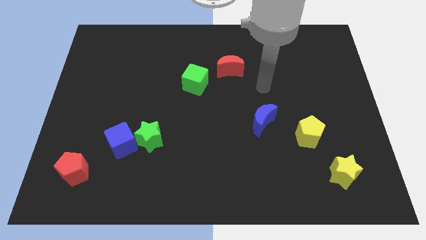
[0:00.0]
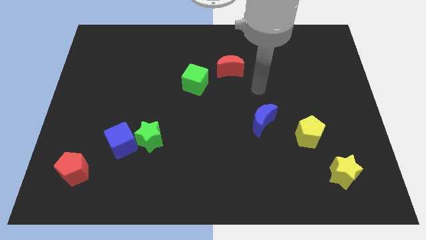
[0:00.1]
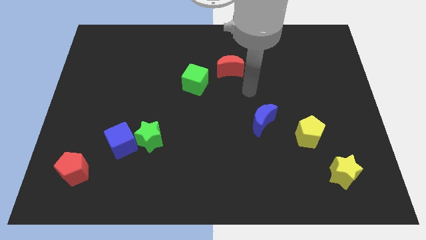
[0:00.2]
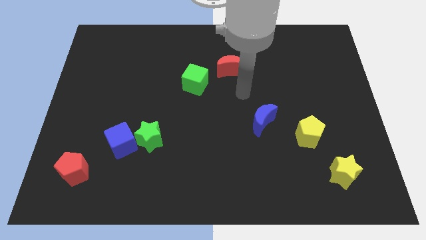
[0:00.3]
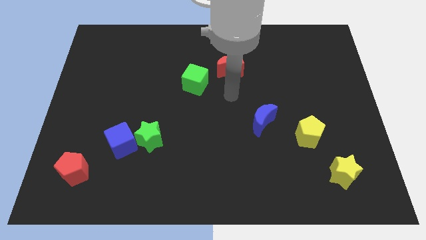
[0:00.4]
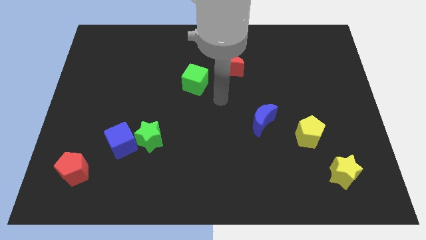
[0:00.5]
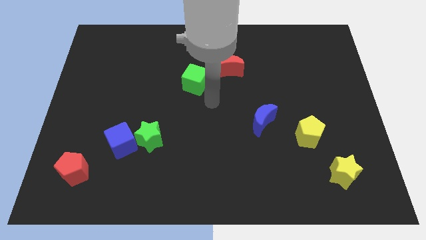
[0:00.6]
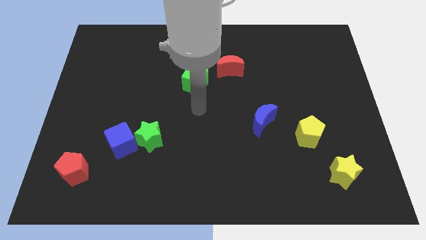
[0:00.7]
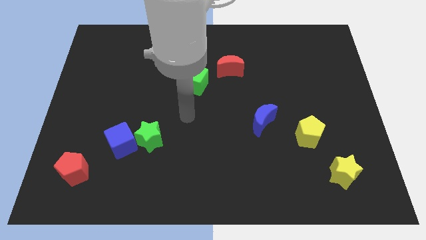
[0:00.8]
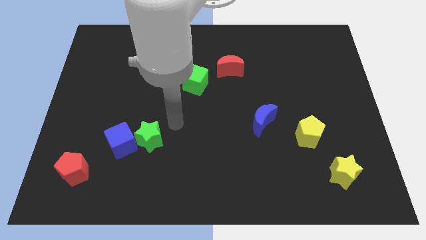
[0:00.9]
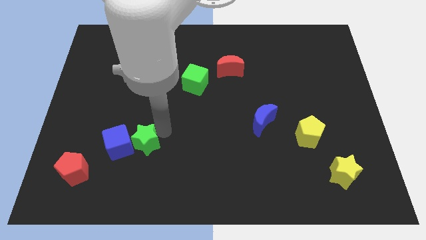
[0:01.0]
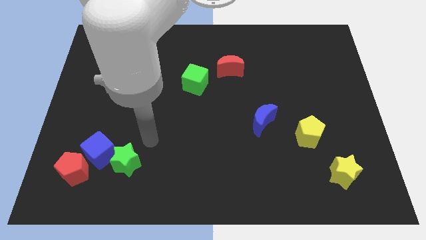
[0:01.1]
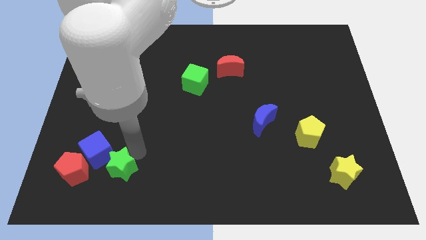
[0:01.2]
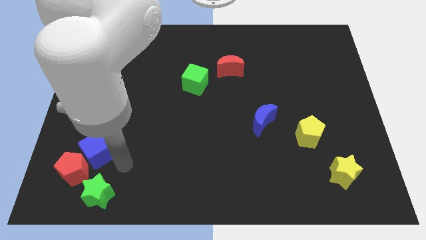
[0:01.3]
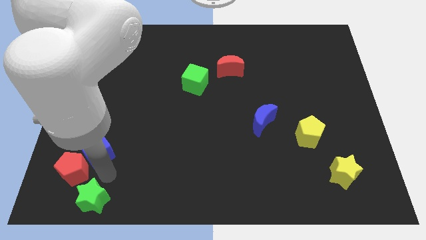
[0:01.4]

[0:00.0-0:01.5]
separate the blue cube from the green star

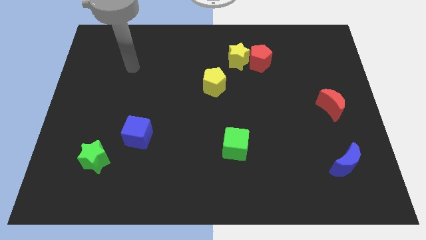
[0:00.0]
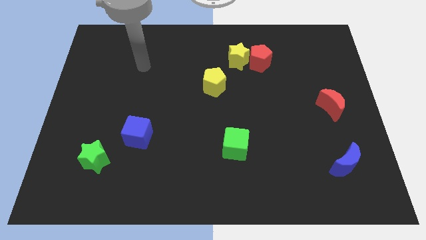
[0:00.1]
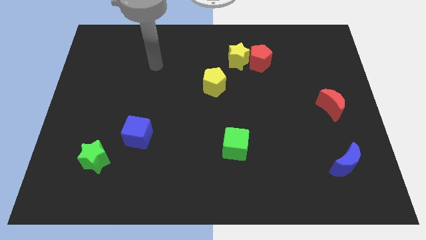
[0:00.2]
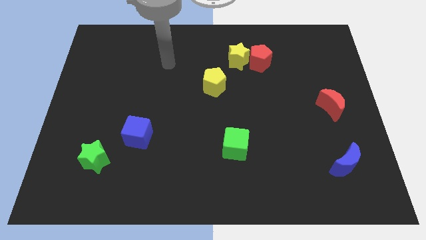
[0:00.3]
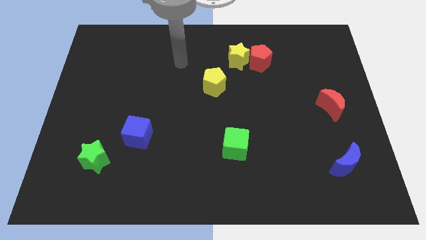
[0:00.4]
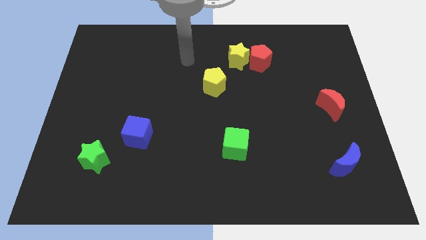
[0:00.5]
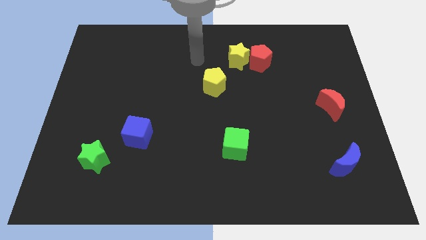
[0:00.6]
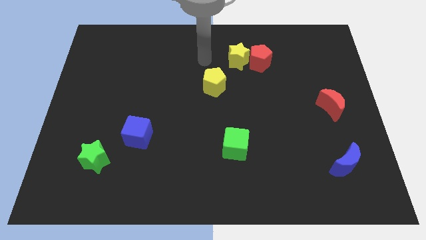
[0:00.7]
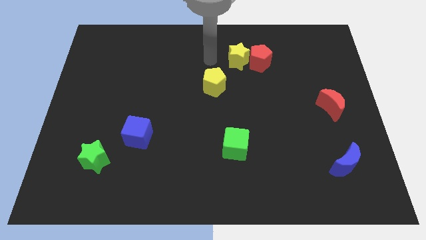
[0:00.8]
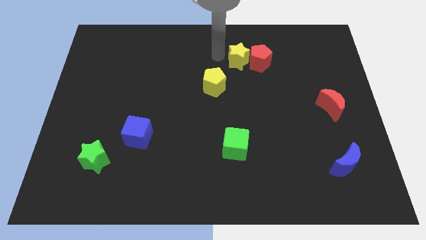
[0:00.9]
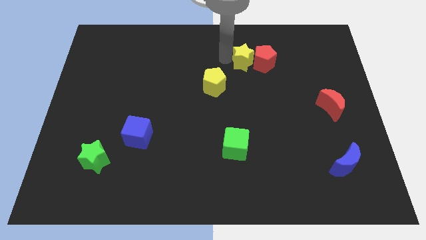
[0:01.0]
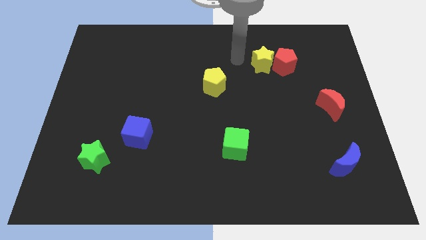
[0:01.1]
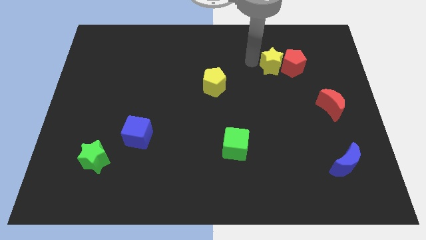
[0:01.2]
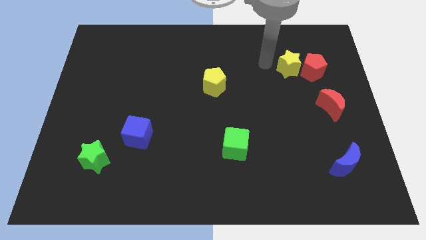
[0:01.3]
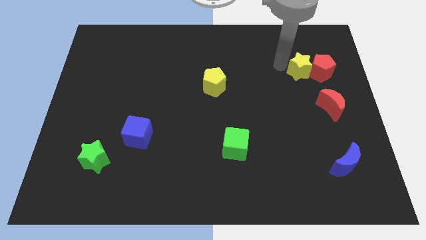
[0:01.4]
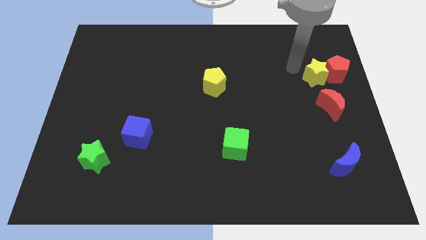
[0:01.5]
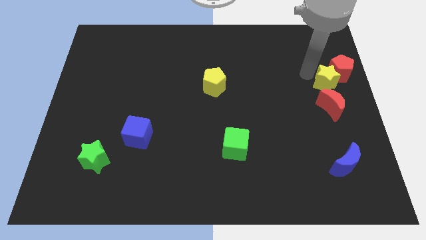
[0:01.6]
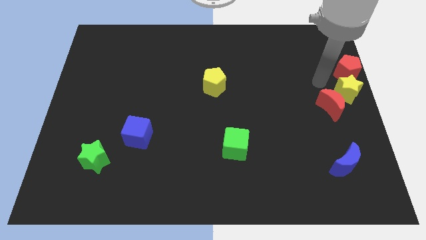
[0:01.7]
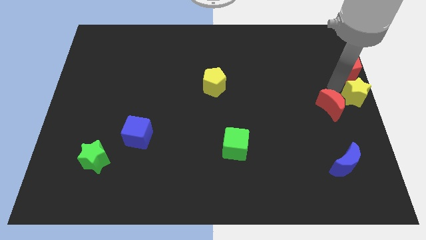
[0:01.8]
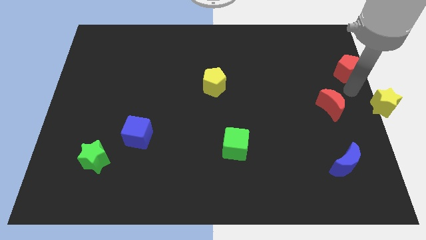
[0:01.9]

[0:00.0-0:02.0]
move the red pentagon away from the yellow star

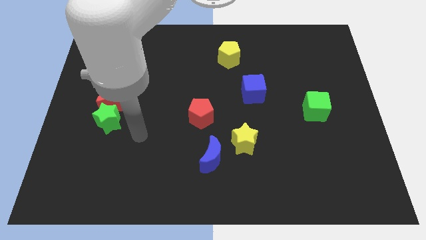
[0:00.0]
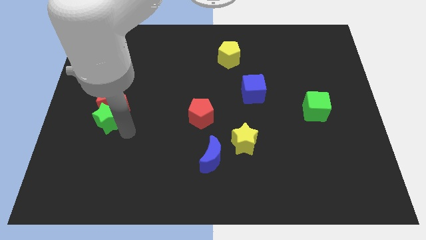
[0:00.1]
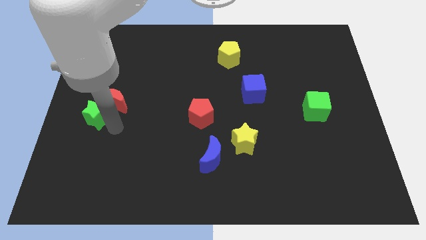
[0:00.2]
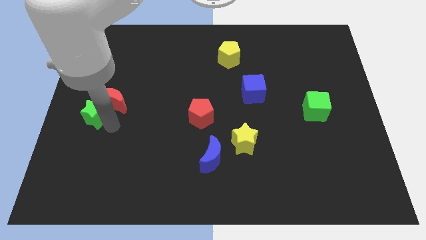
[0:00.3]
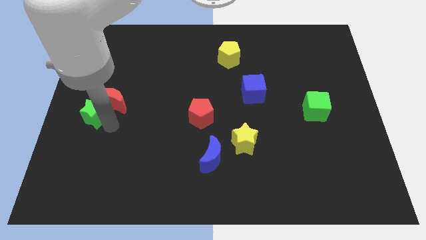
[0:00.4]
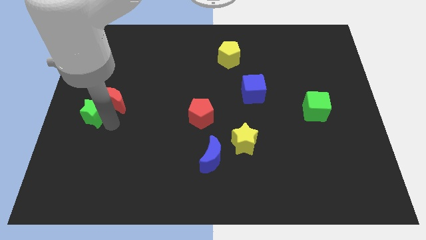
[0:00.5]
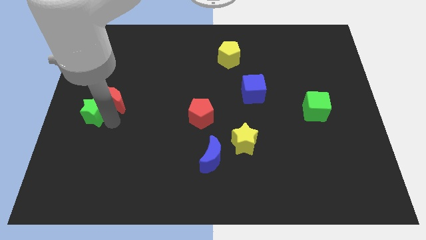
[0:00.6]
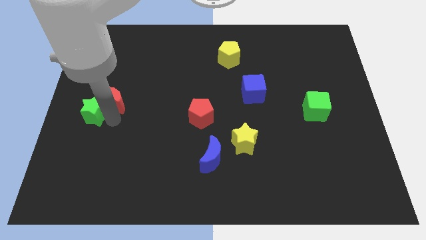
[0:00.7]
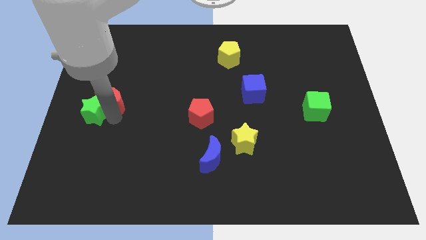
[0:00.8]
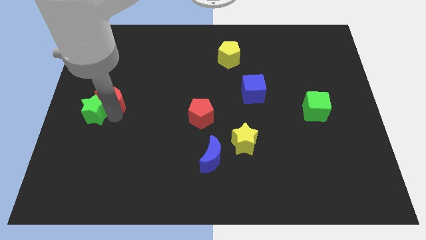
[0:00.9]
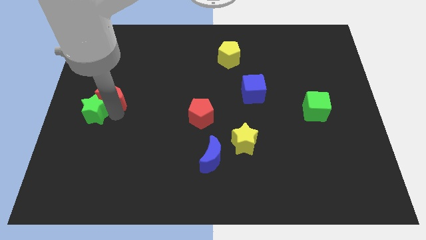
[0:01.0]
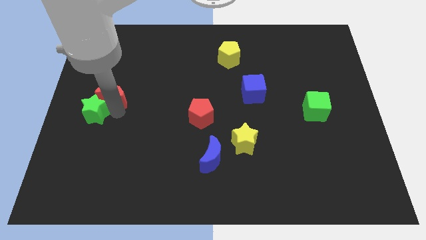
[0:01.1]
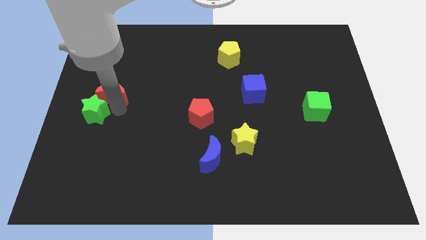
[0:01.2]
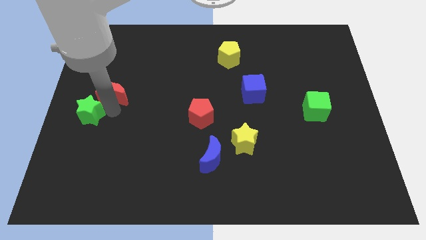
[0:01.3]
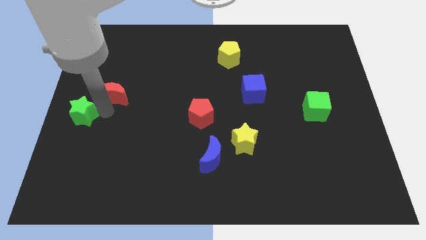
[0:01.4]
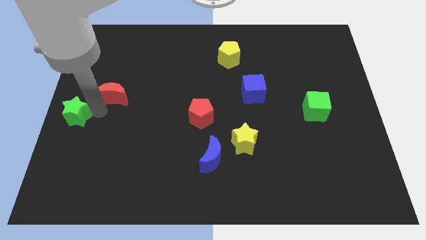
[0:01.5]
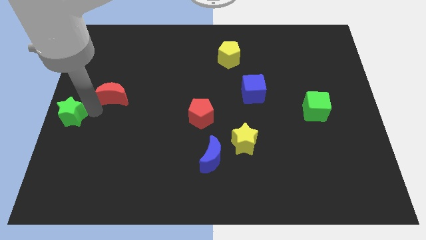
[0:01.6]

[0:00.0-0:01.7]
pull the red moon apart from the green star

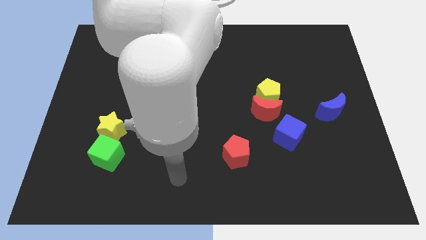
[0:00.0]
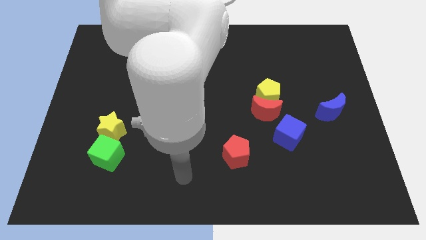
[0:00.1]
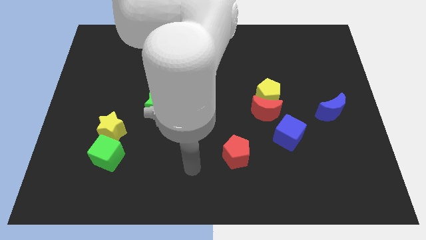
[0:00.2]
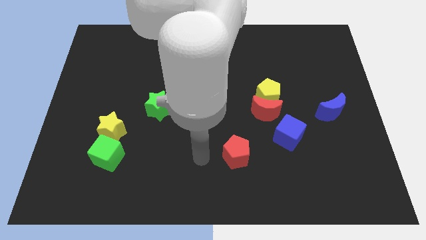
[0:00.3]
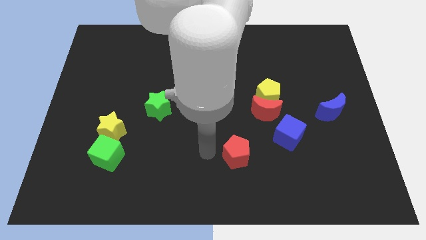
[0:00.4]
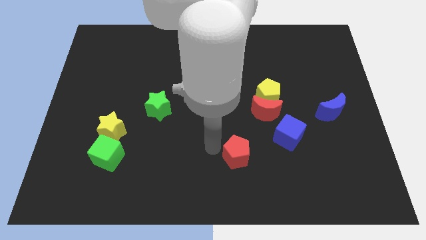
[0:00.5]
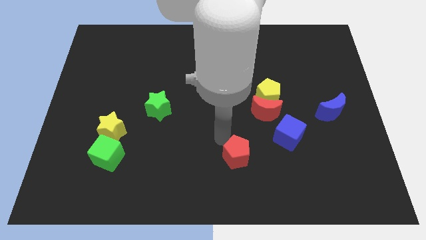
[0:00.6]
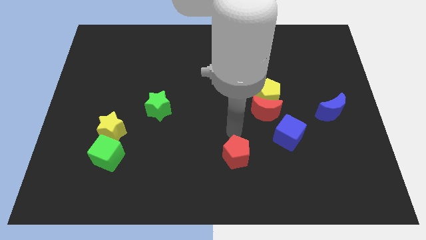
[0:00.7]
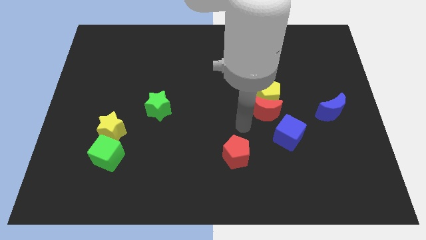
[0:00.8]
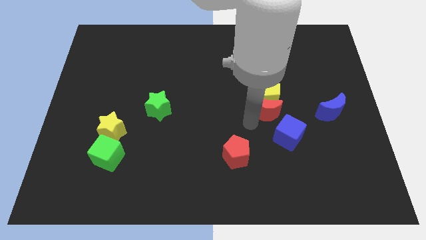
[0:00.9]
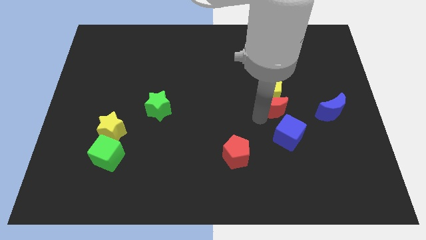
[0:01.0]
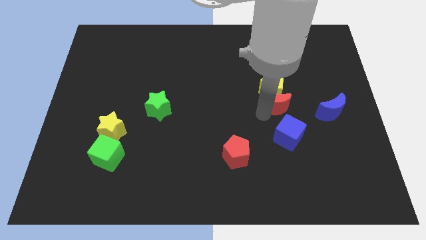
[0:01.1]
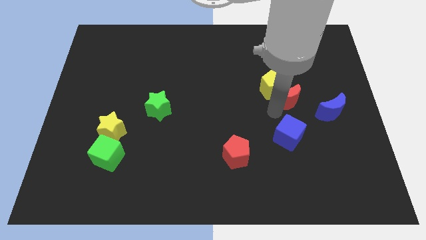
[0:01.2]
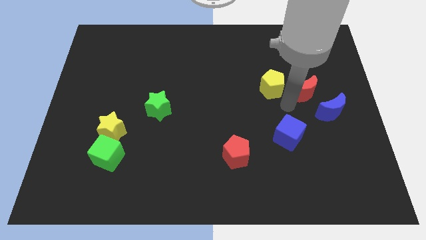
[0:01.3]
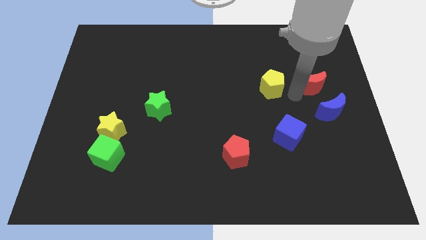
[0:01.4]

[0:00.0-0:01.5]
pull the yellow pentagon apart from the red moon

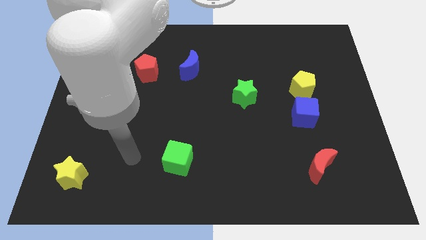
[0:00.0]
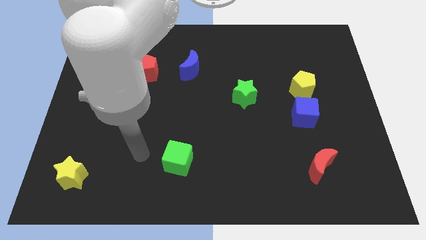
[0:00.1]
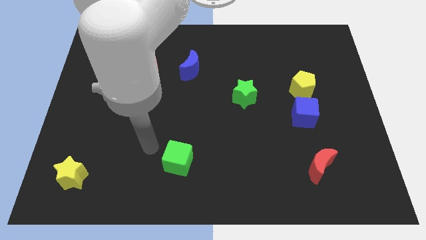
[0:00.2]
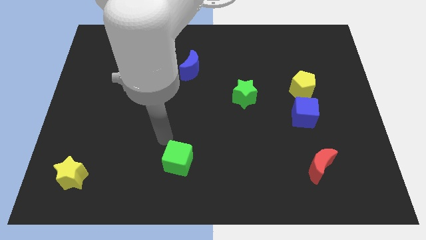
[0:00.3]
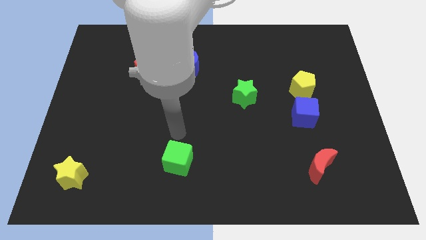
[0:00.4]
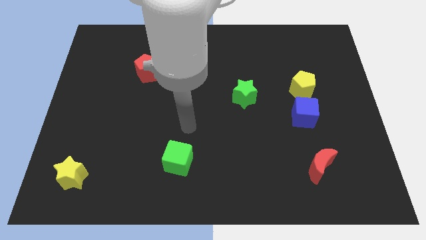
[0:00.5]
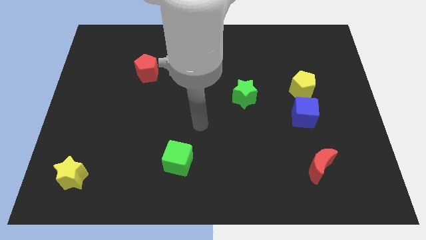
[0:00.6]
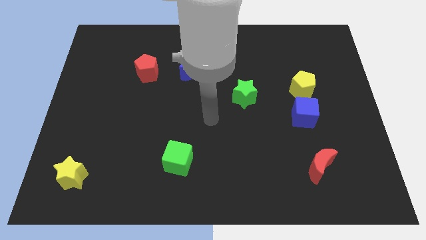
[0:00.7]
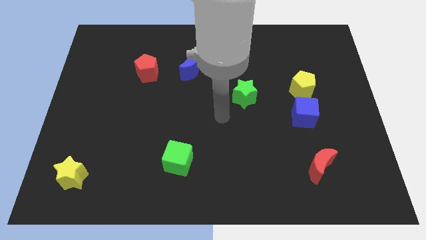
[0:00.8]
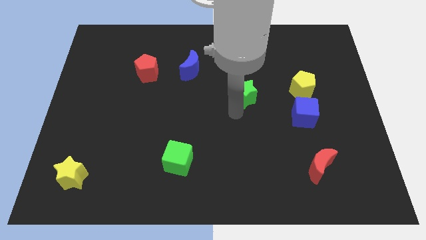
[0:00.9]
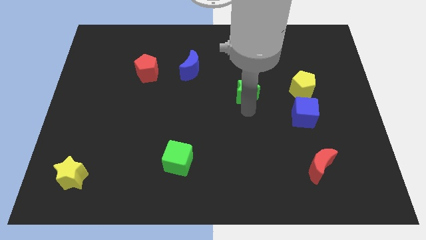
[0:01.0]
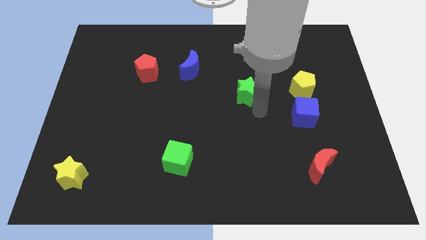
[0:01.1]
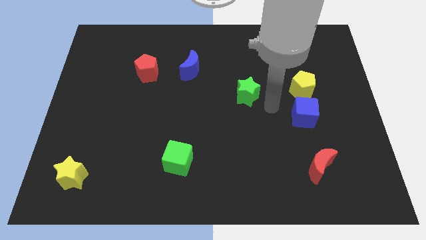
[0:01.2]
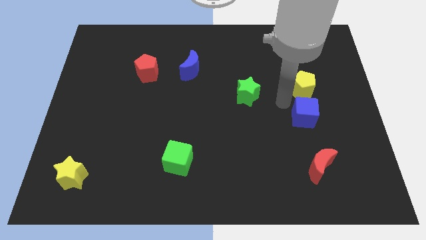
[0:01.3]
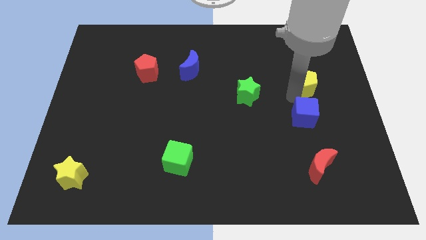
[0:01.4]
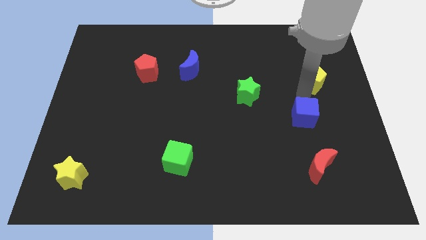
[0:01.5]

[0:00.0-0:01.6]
separate the blue cube from the yellow pentagon

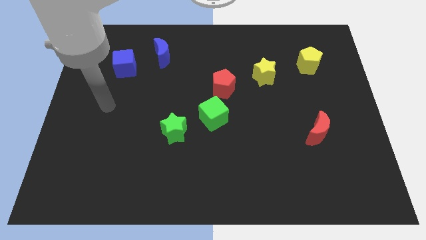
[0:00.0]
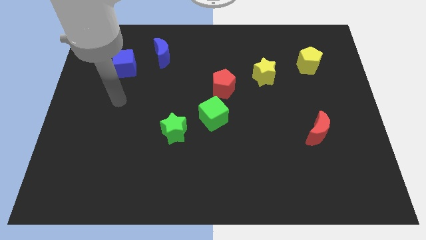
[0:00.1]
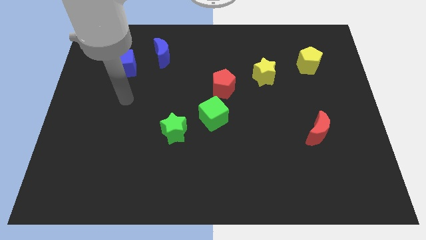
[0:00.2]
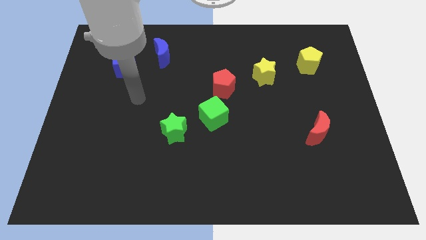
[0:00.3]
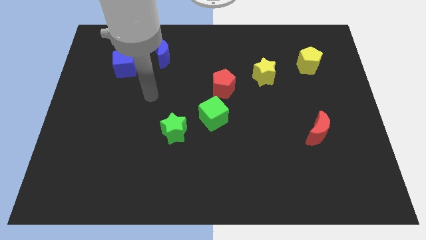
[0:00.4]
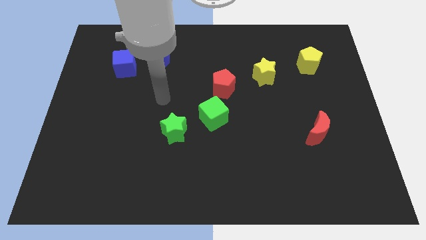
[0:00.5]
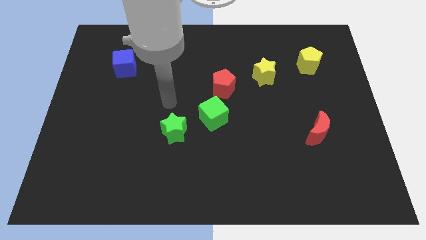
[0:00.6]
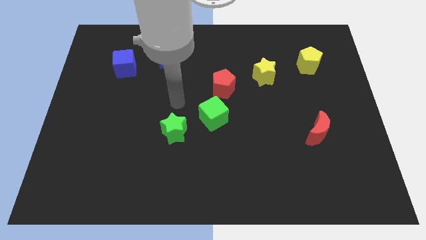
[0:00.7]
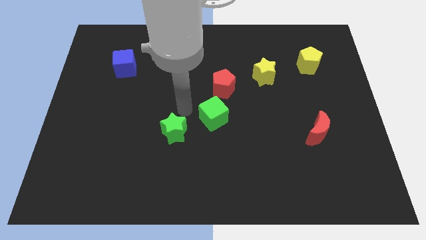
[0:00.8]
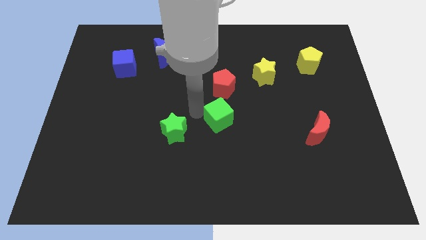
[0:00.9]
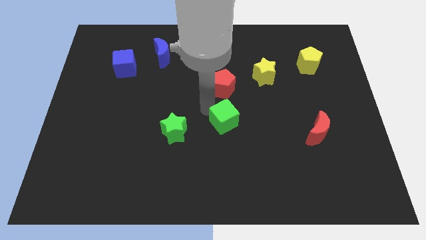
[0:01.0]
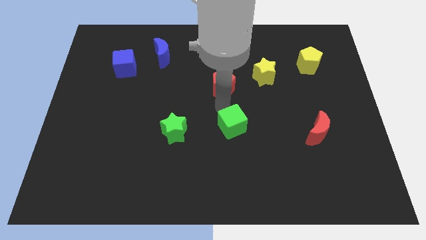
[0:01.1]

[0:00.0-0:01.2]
separate the red pentagon from the green cube
